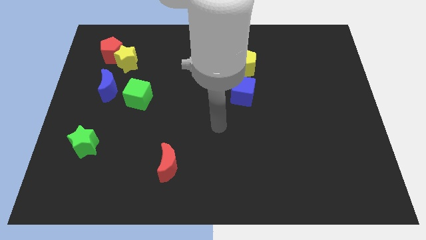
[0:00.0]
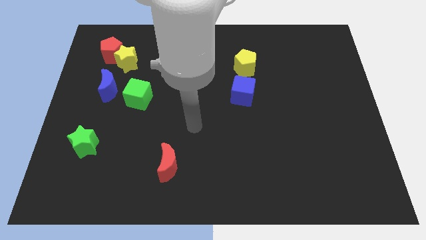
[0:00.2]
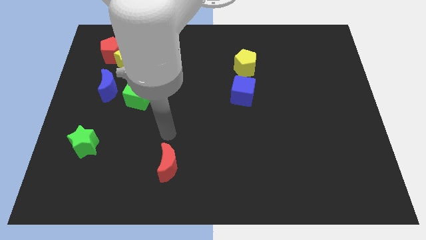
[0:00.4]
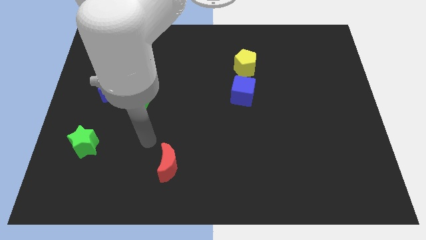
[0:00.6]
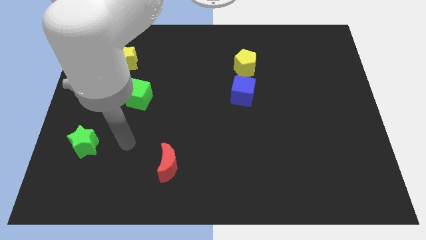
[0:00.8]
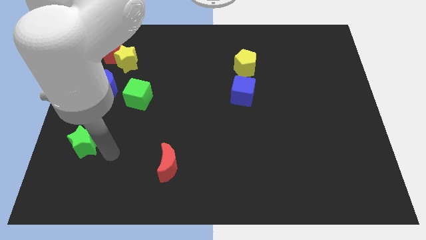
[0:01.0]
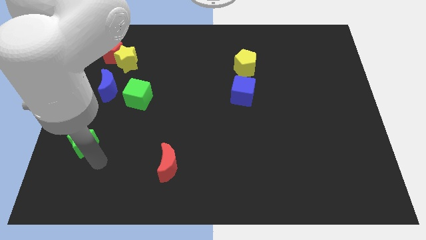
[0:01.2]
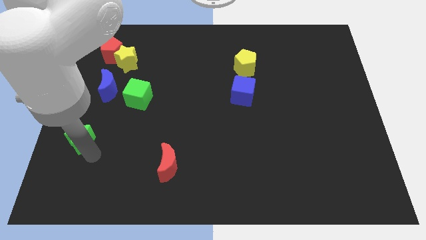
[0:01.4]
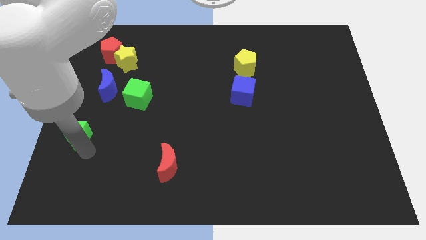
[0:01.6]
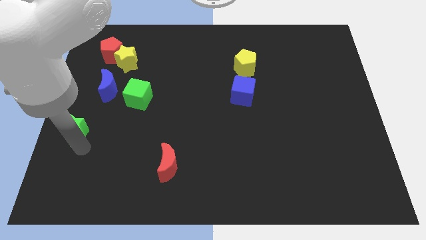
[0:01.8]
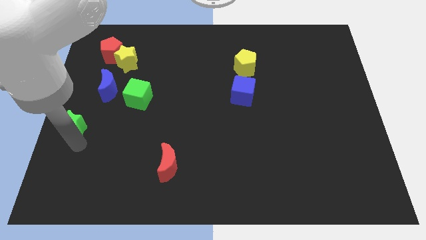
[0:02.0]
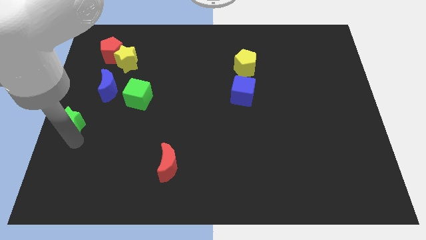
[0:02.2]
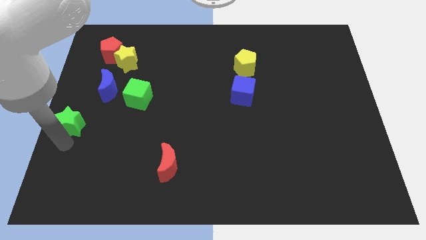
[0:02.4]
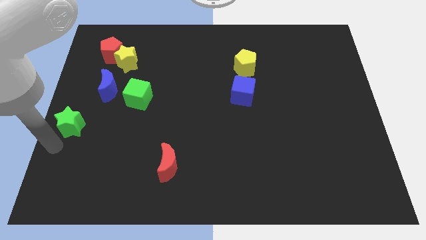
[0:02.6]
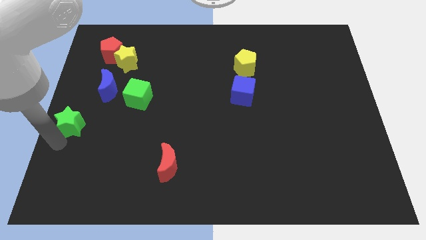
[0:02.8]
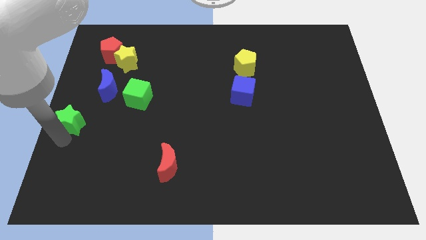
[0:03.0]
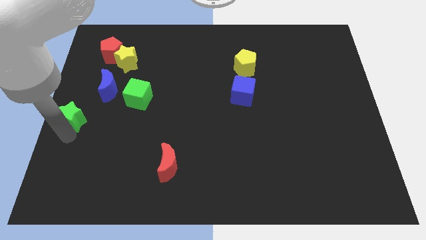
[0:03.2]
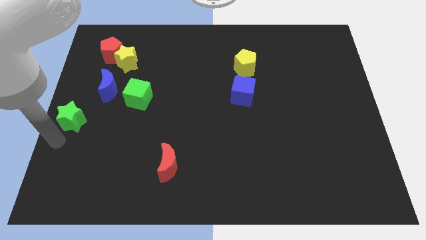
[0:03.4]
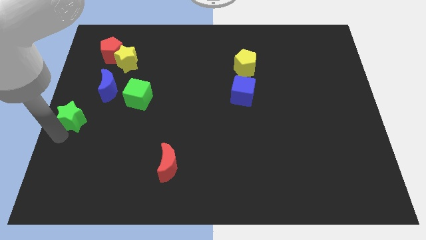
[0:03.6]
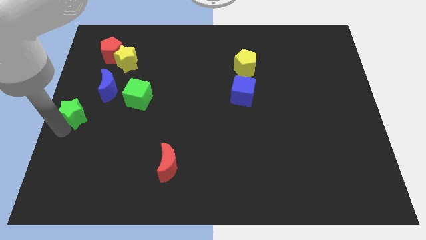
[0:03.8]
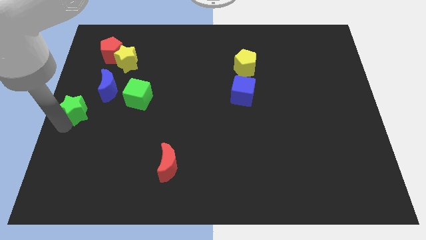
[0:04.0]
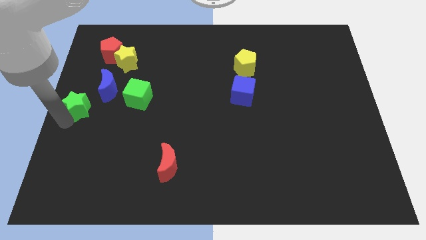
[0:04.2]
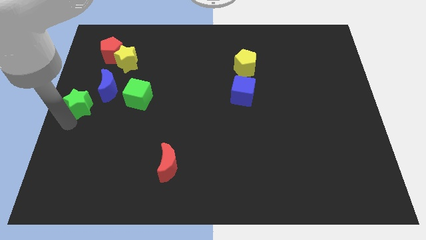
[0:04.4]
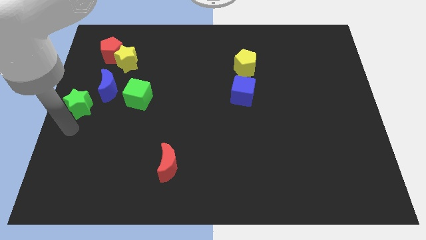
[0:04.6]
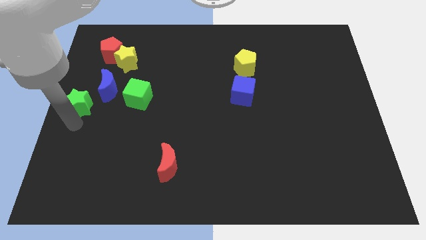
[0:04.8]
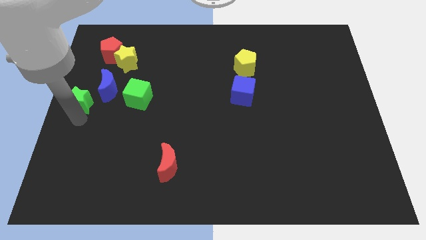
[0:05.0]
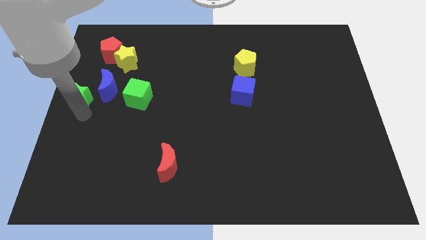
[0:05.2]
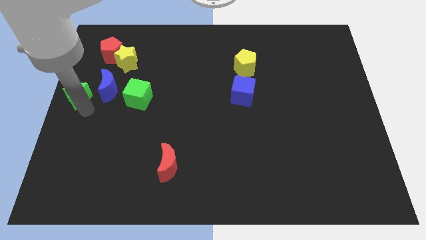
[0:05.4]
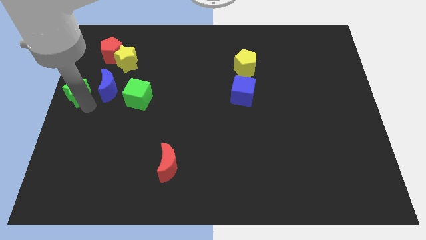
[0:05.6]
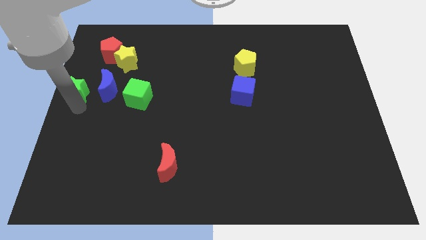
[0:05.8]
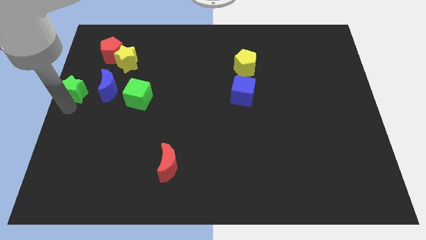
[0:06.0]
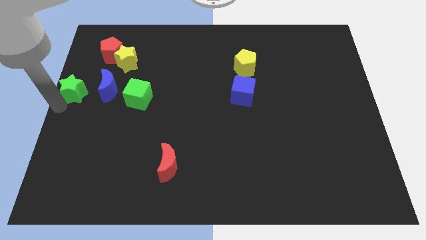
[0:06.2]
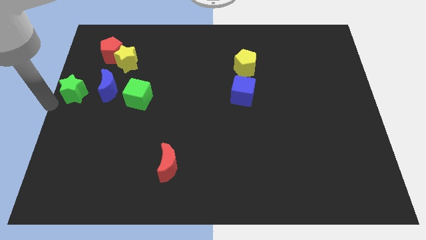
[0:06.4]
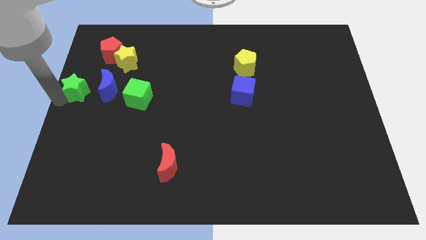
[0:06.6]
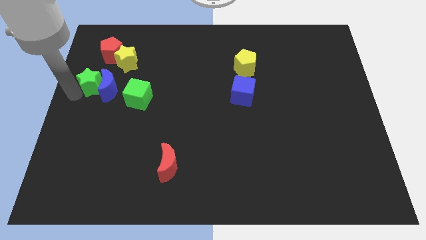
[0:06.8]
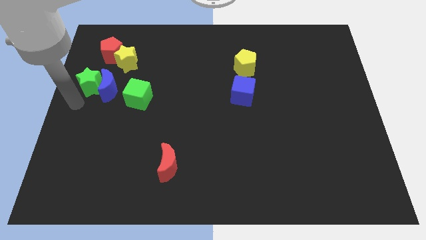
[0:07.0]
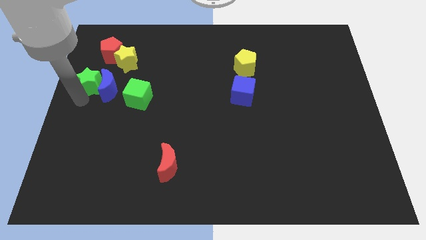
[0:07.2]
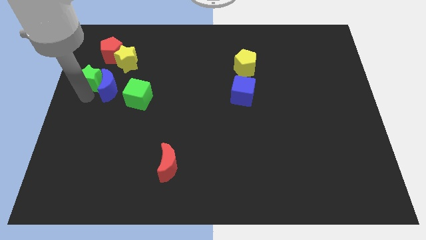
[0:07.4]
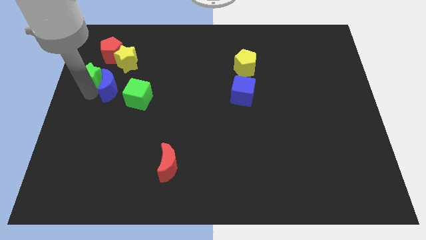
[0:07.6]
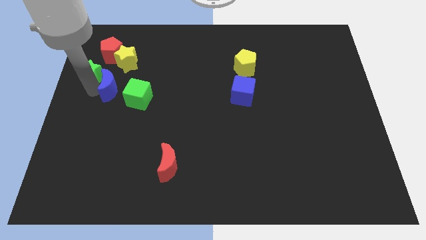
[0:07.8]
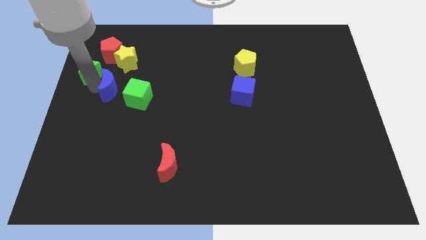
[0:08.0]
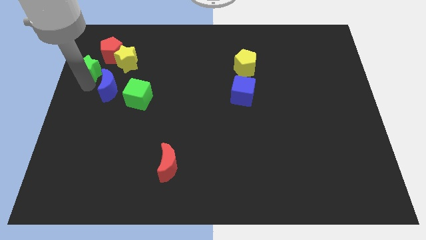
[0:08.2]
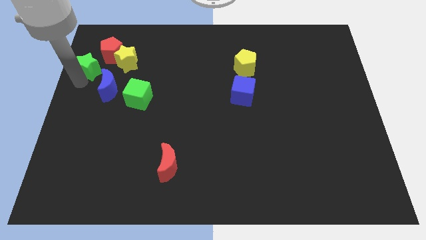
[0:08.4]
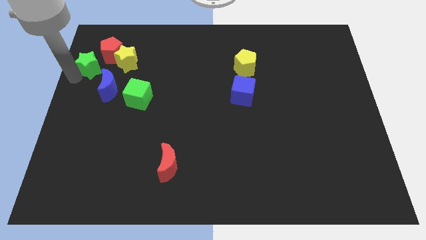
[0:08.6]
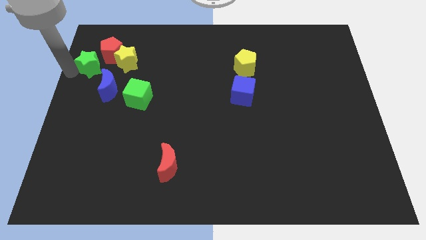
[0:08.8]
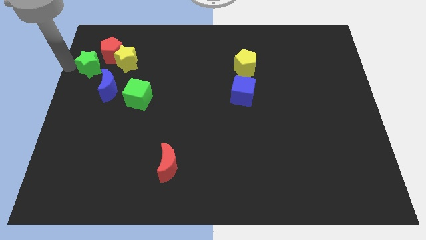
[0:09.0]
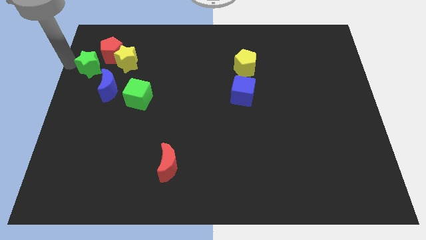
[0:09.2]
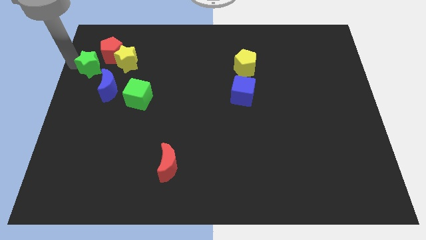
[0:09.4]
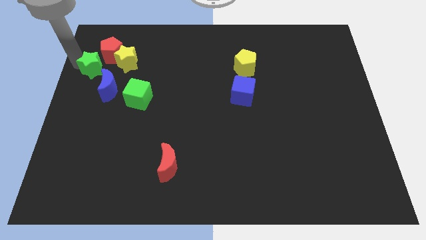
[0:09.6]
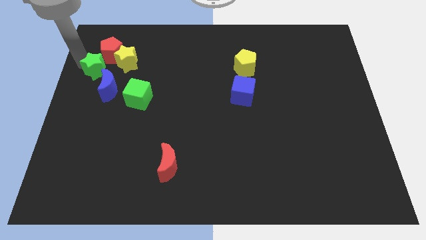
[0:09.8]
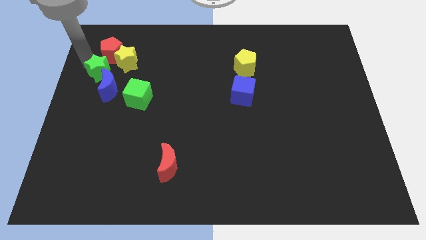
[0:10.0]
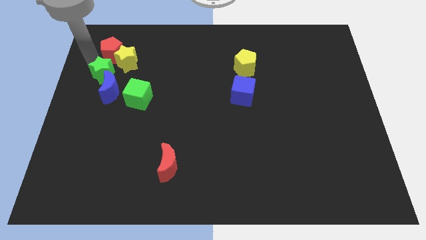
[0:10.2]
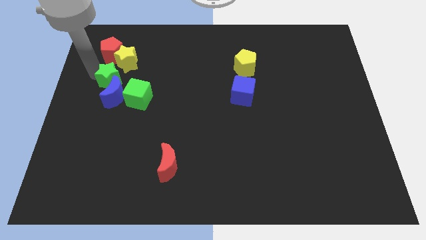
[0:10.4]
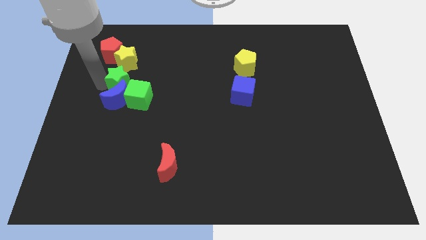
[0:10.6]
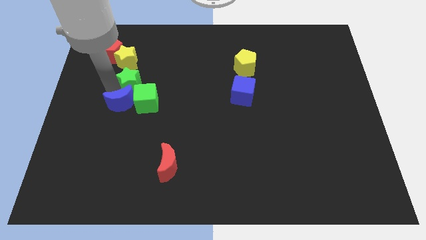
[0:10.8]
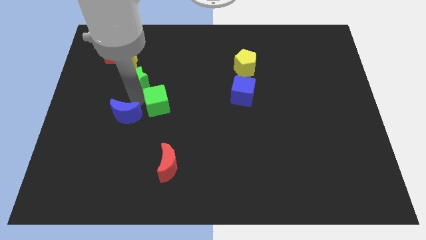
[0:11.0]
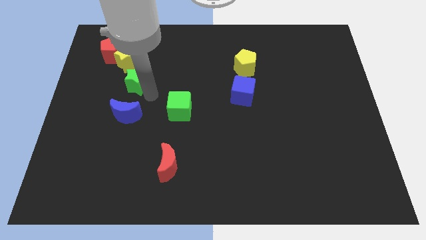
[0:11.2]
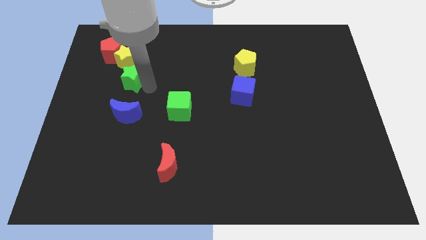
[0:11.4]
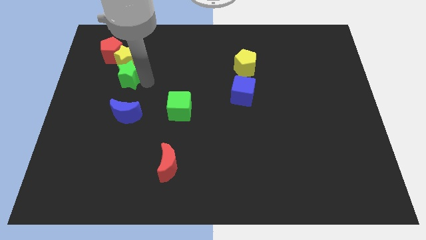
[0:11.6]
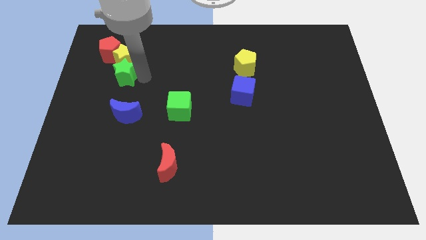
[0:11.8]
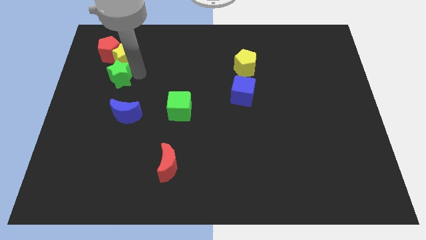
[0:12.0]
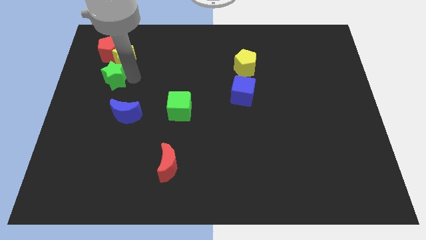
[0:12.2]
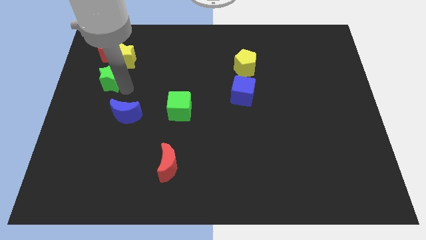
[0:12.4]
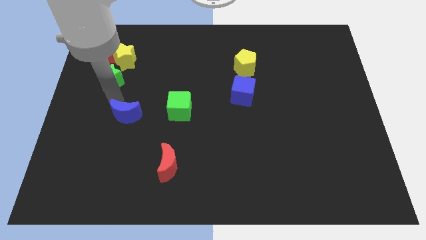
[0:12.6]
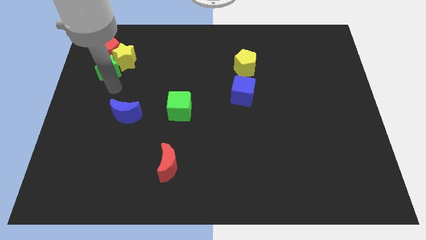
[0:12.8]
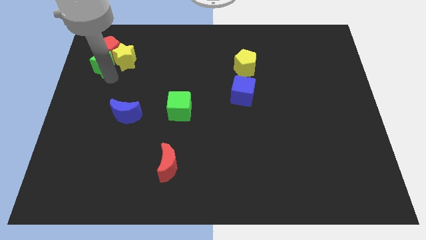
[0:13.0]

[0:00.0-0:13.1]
slide the green star towards the red pentagon
